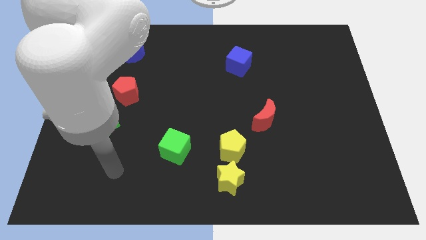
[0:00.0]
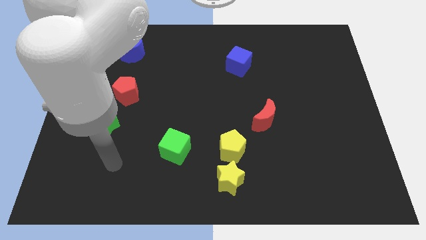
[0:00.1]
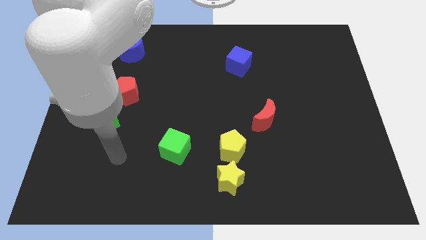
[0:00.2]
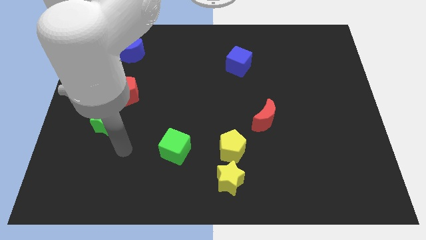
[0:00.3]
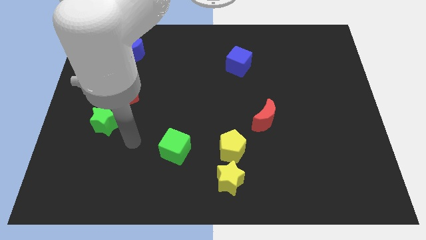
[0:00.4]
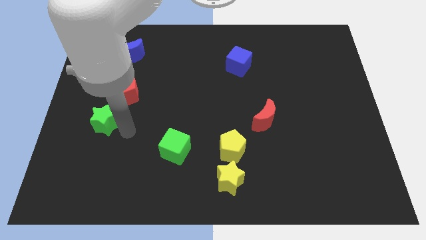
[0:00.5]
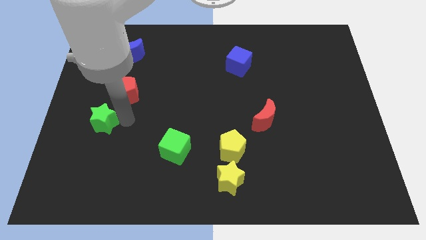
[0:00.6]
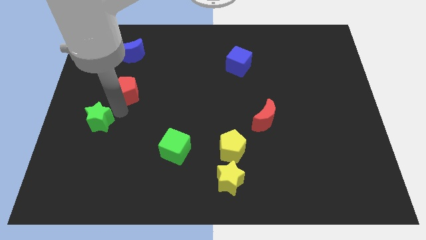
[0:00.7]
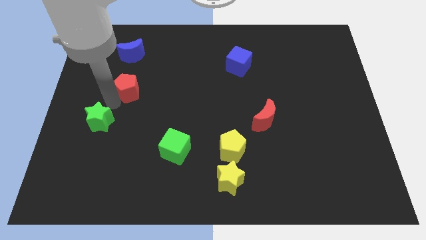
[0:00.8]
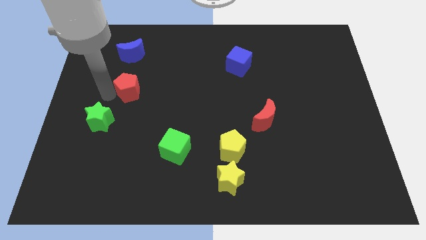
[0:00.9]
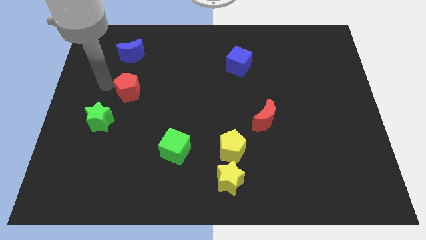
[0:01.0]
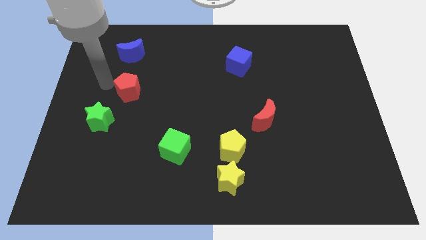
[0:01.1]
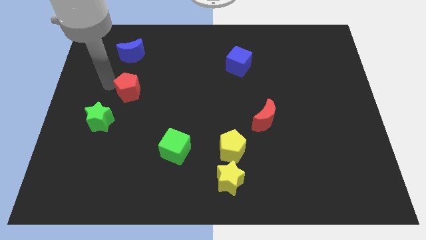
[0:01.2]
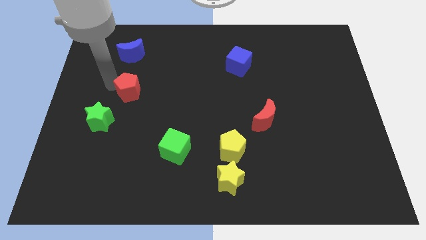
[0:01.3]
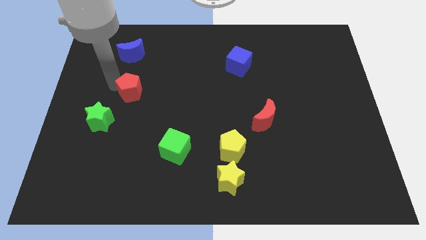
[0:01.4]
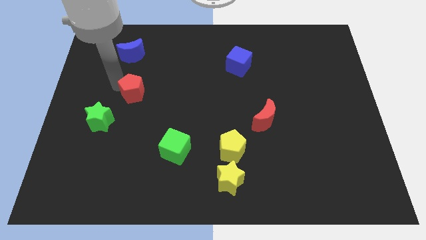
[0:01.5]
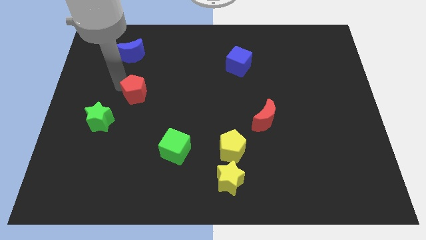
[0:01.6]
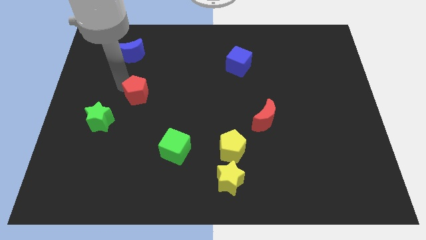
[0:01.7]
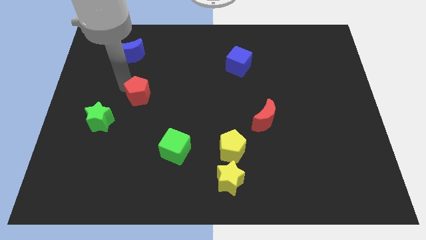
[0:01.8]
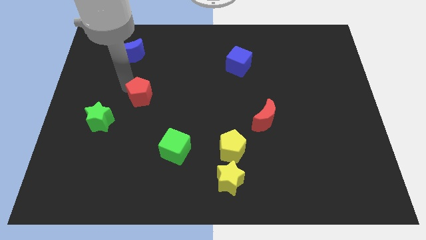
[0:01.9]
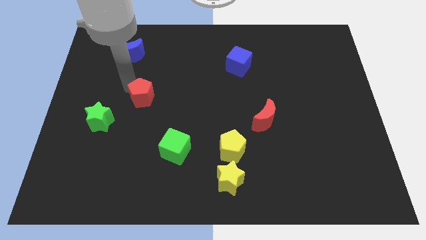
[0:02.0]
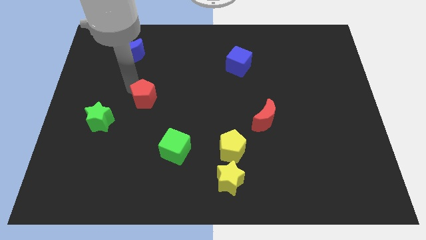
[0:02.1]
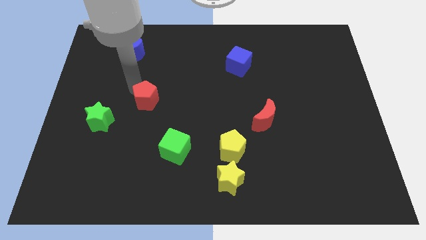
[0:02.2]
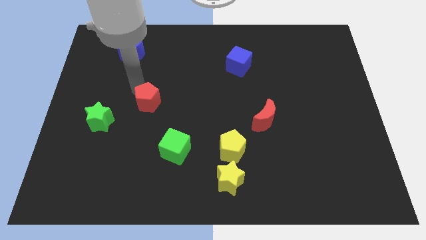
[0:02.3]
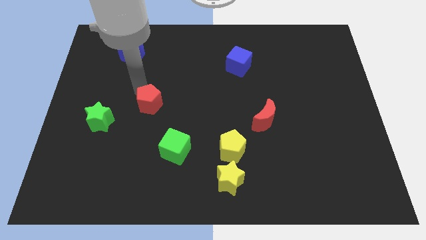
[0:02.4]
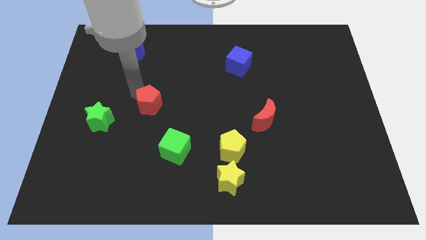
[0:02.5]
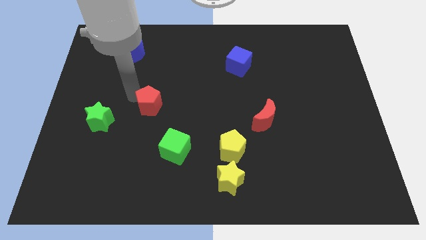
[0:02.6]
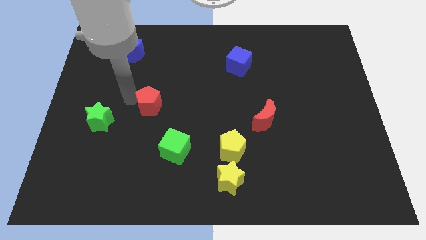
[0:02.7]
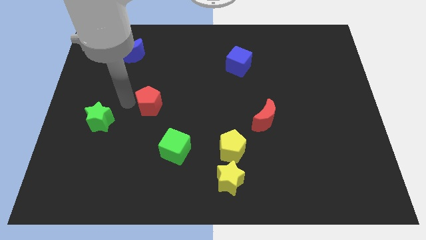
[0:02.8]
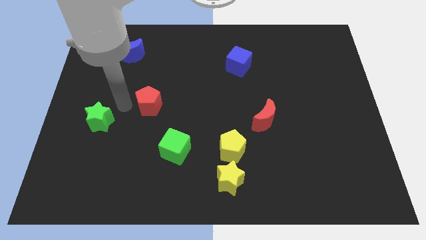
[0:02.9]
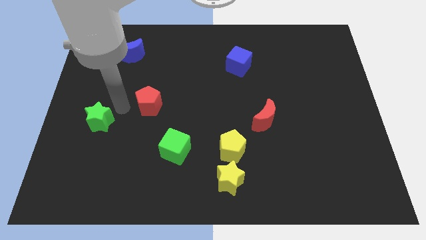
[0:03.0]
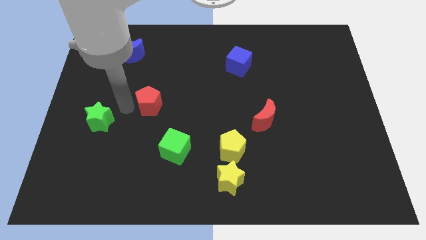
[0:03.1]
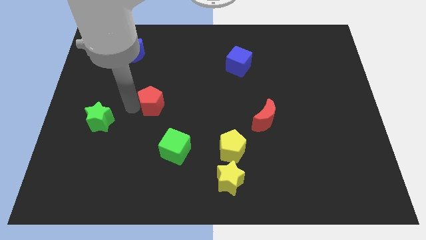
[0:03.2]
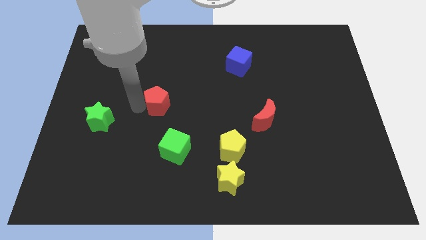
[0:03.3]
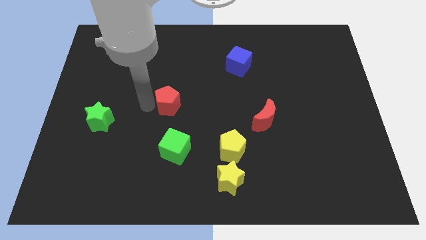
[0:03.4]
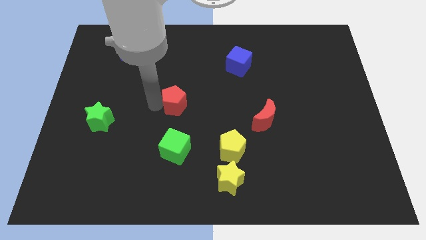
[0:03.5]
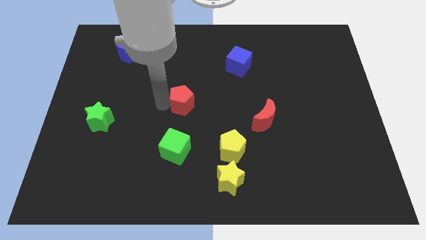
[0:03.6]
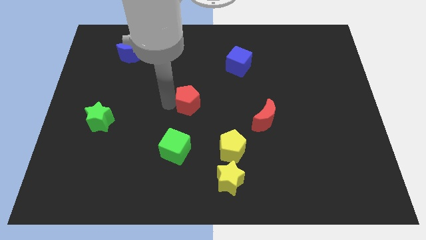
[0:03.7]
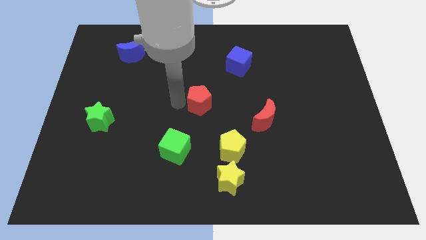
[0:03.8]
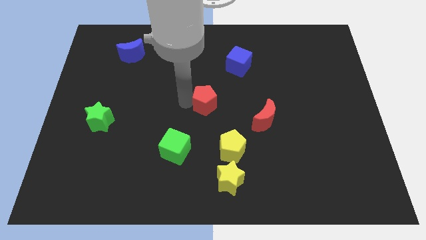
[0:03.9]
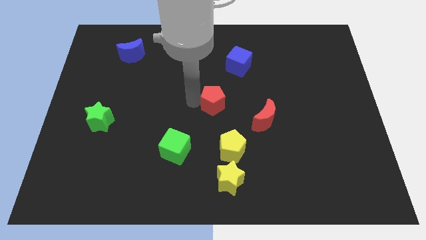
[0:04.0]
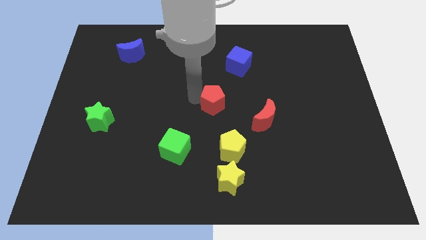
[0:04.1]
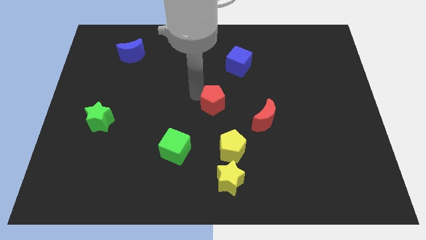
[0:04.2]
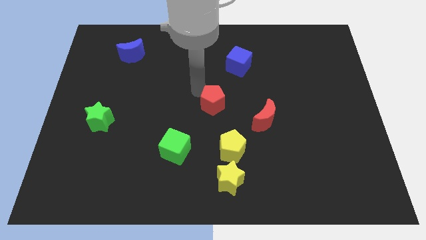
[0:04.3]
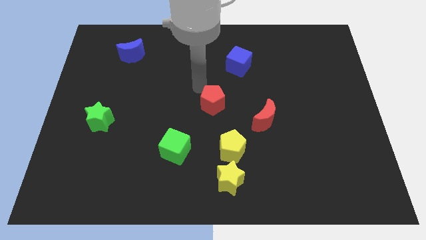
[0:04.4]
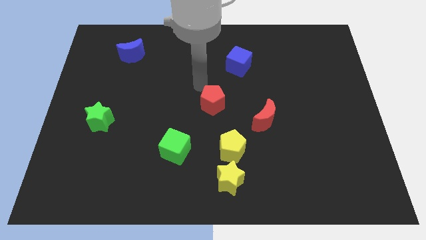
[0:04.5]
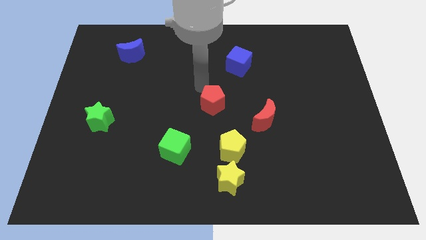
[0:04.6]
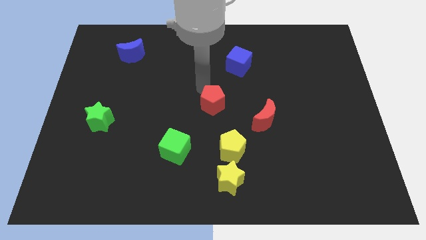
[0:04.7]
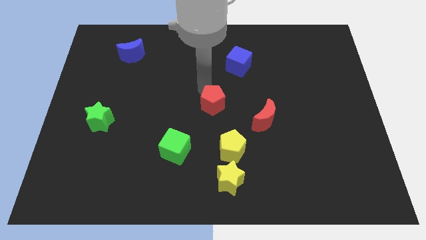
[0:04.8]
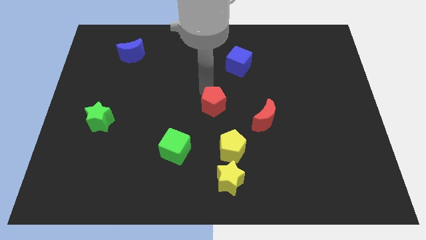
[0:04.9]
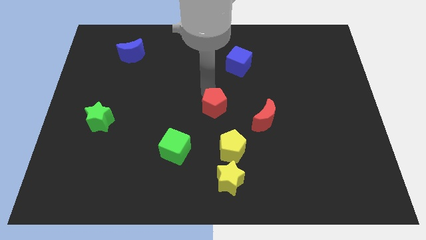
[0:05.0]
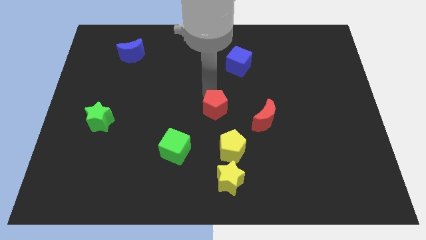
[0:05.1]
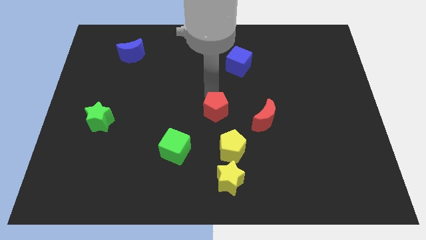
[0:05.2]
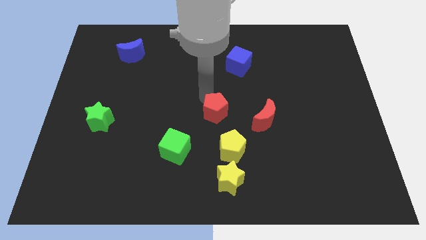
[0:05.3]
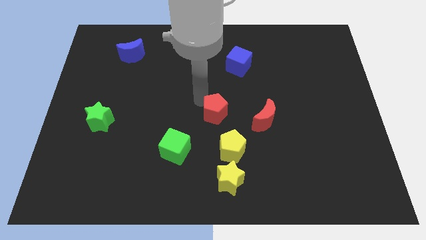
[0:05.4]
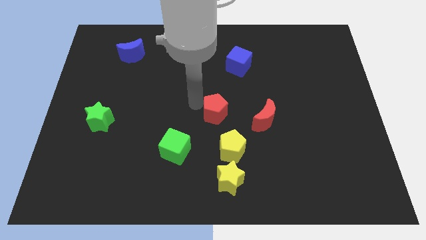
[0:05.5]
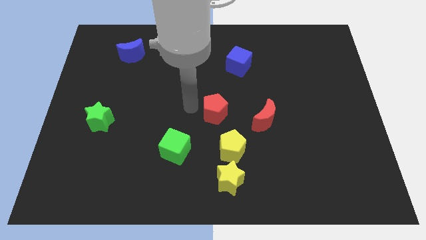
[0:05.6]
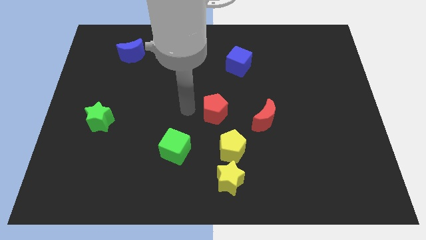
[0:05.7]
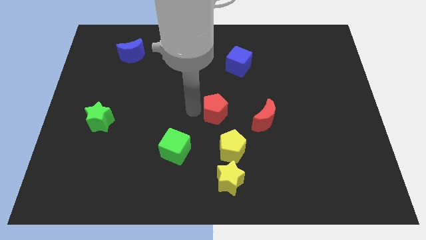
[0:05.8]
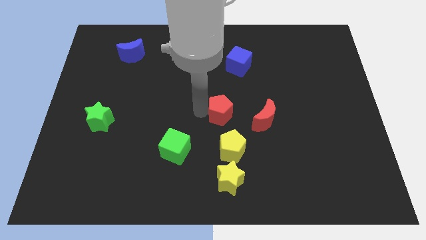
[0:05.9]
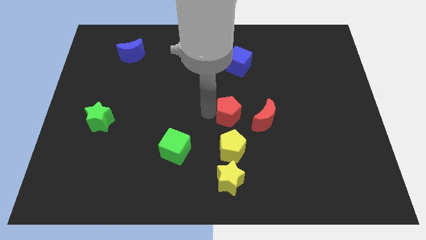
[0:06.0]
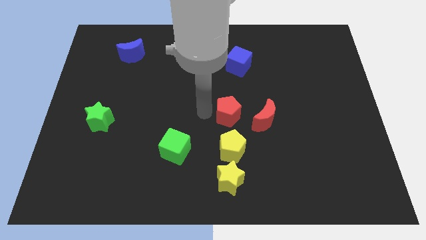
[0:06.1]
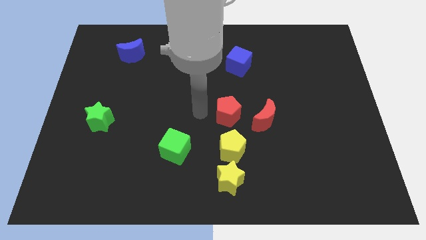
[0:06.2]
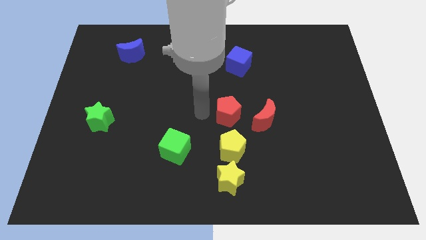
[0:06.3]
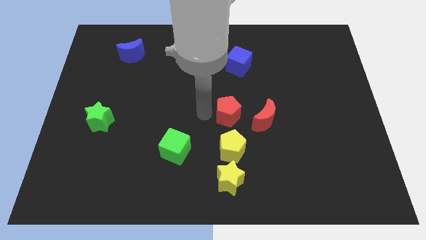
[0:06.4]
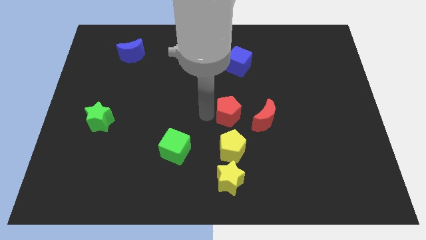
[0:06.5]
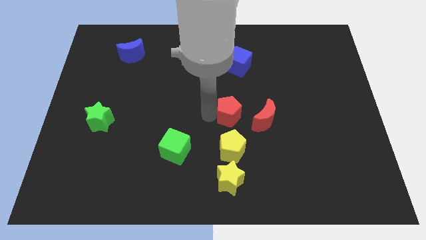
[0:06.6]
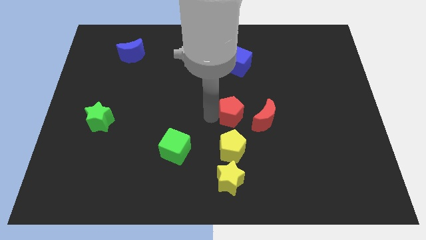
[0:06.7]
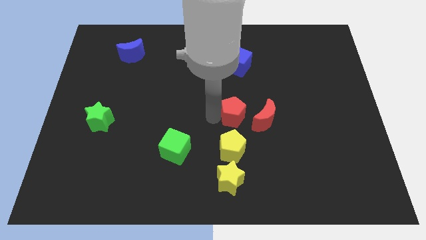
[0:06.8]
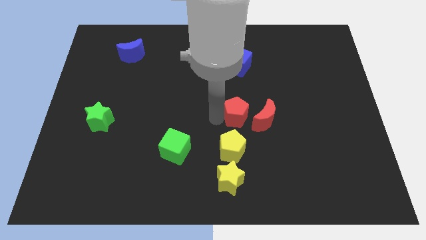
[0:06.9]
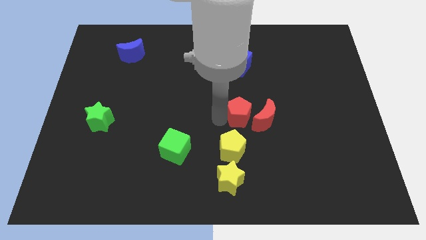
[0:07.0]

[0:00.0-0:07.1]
push the red pentagon to the red moon
